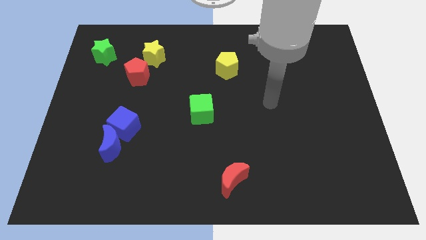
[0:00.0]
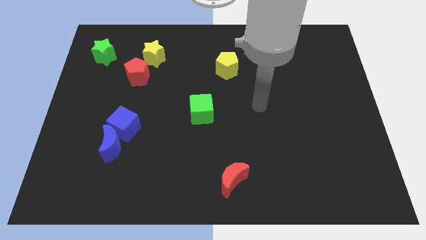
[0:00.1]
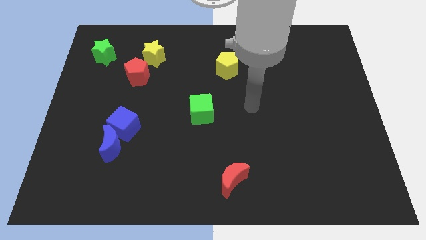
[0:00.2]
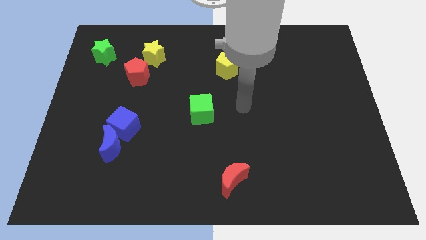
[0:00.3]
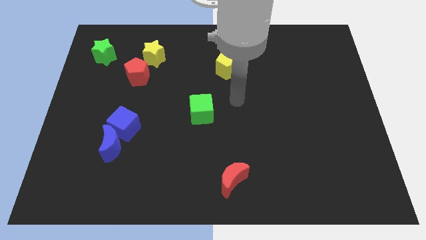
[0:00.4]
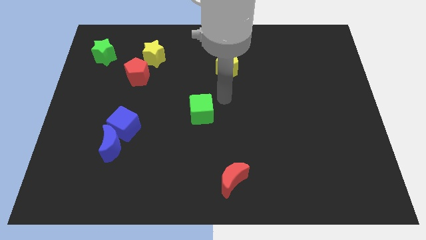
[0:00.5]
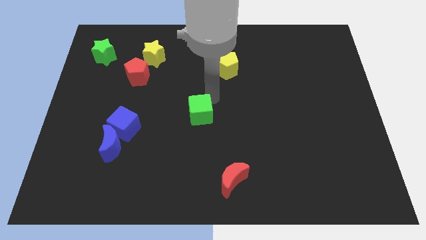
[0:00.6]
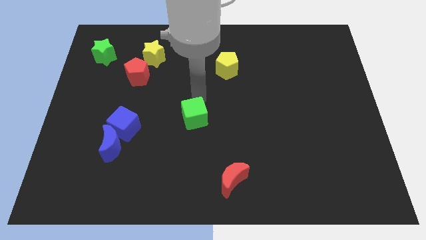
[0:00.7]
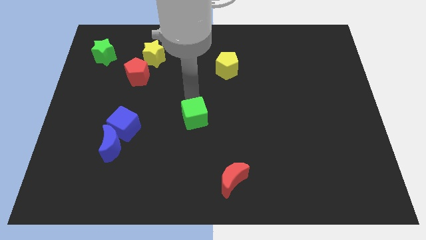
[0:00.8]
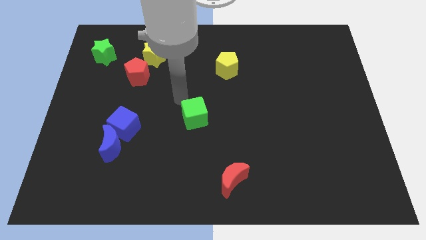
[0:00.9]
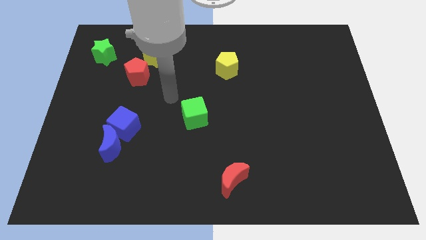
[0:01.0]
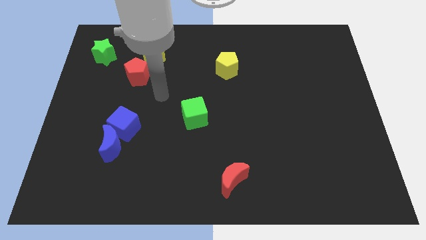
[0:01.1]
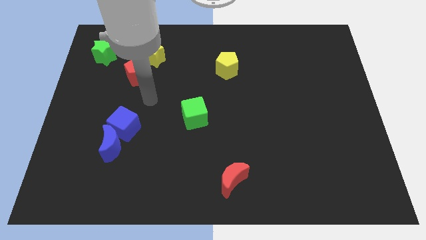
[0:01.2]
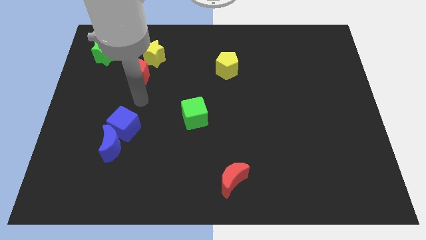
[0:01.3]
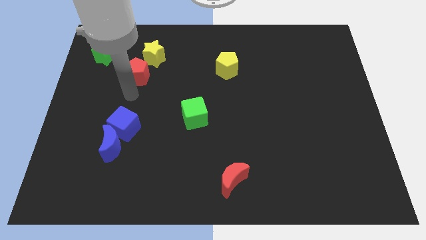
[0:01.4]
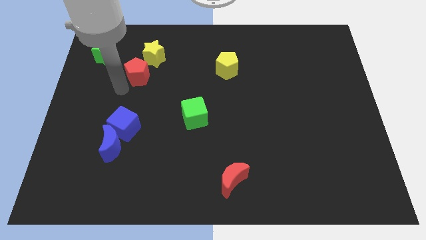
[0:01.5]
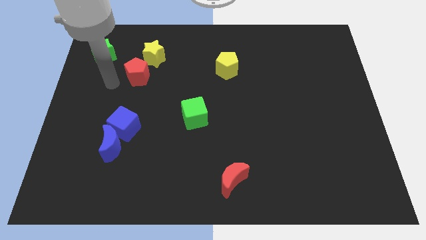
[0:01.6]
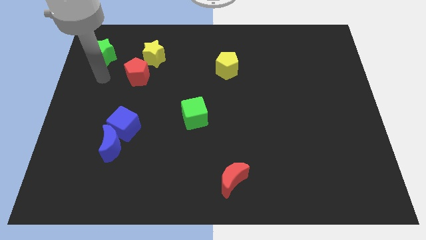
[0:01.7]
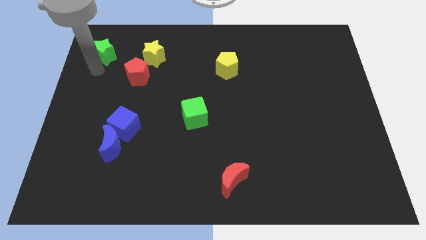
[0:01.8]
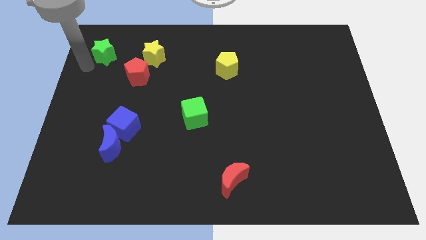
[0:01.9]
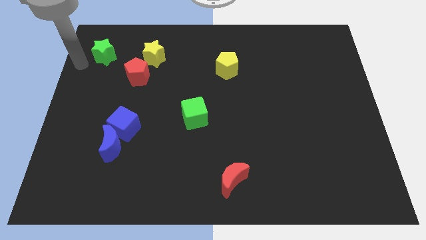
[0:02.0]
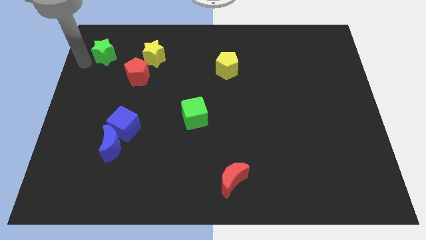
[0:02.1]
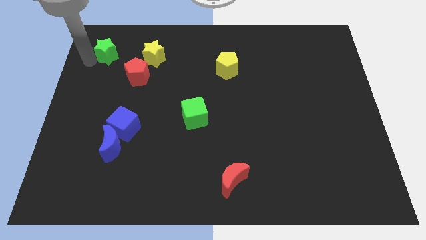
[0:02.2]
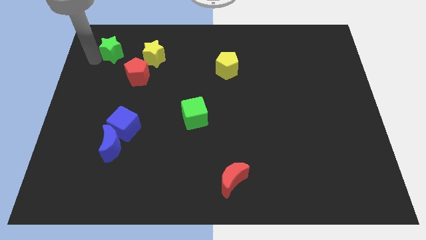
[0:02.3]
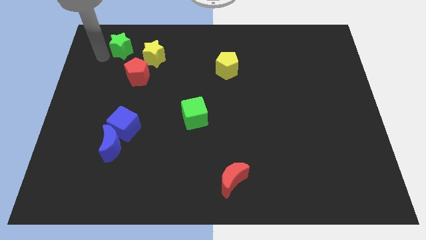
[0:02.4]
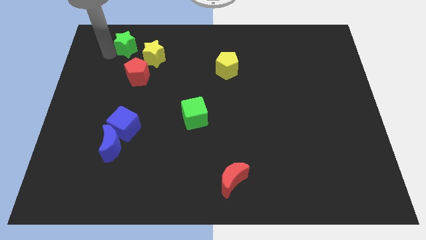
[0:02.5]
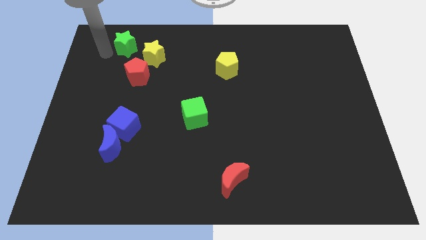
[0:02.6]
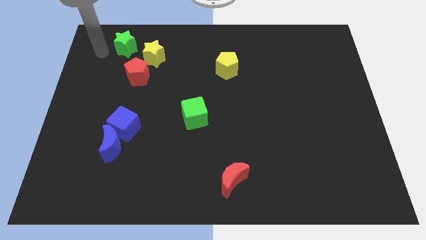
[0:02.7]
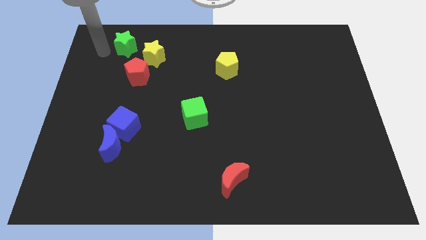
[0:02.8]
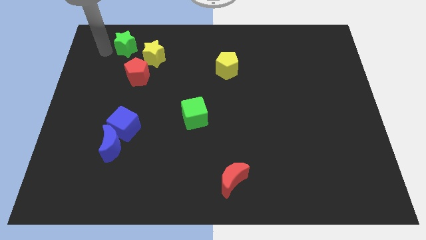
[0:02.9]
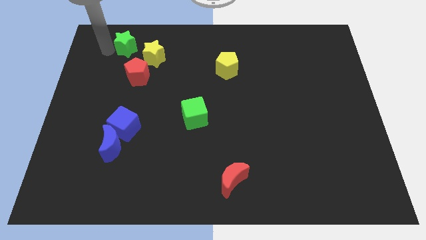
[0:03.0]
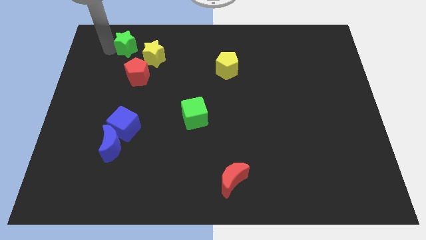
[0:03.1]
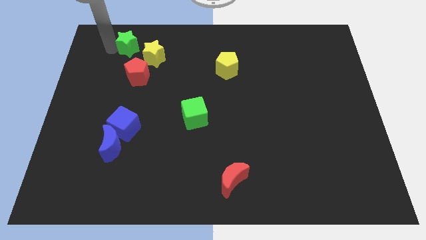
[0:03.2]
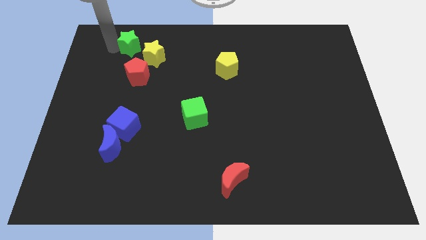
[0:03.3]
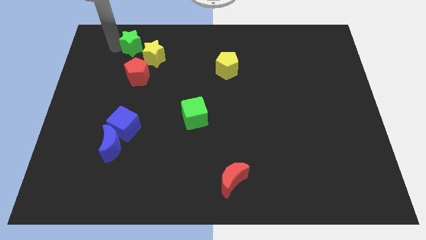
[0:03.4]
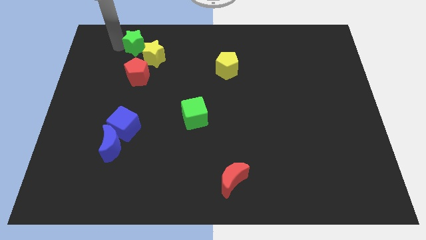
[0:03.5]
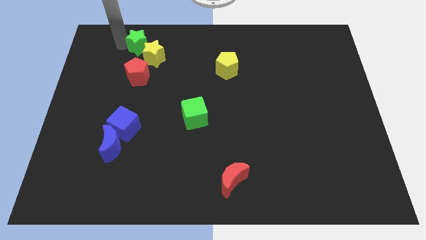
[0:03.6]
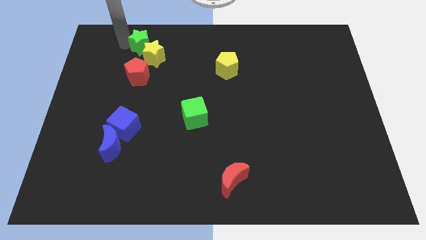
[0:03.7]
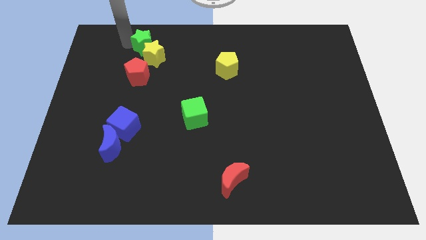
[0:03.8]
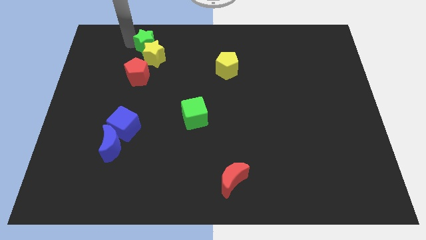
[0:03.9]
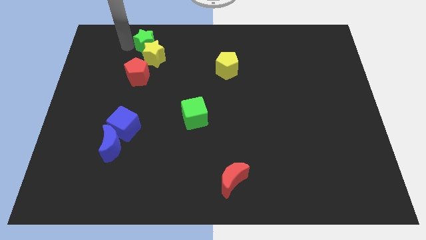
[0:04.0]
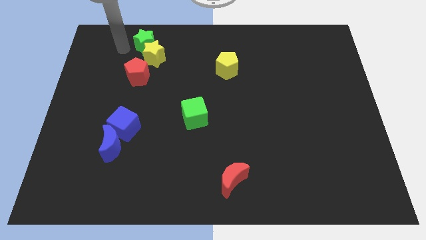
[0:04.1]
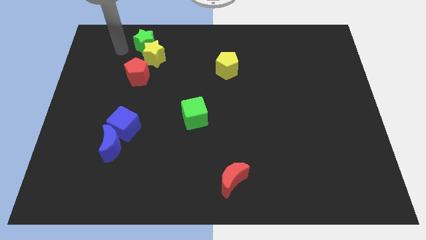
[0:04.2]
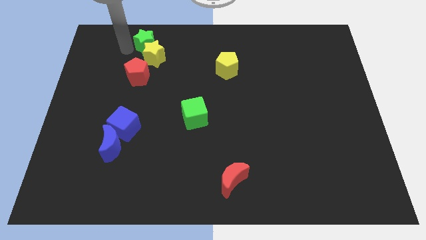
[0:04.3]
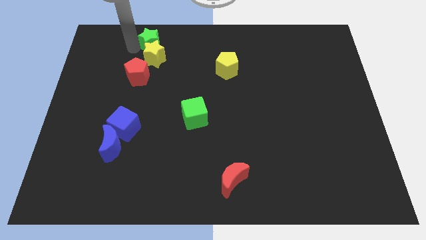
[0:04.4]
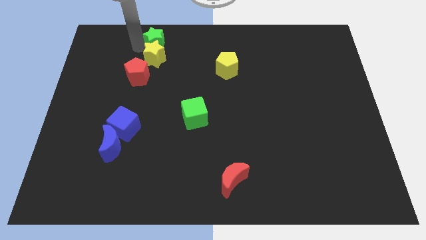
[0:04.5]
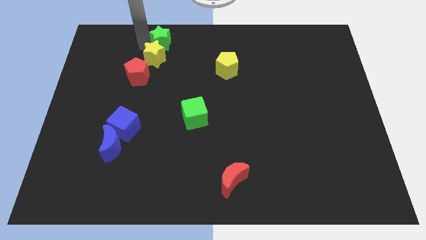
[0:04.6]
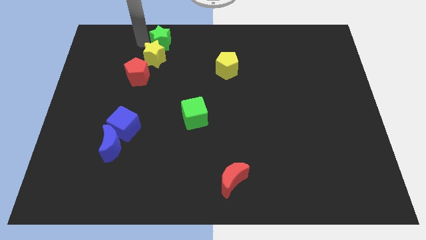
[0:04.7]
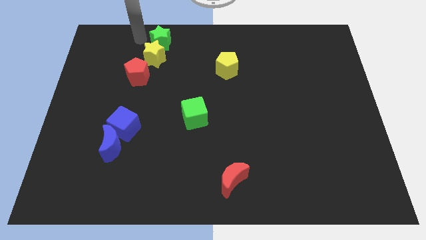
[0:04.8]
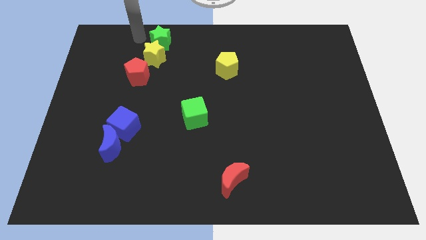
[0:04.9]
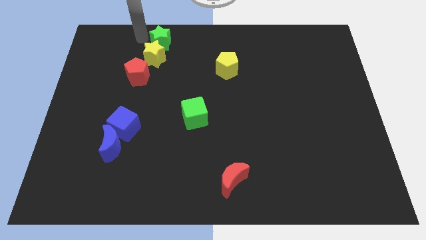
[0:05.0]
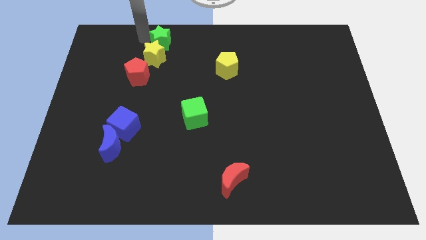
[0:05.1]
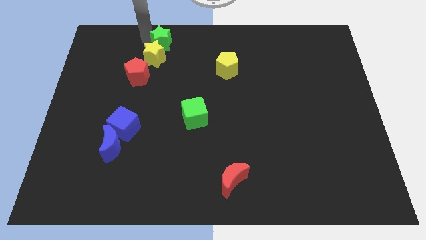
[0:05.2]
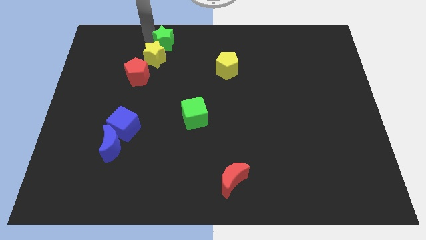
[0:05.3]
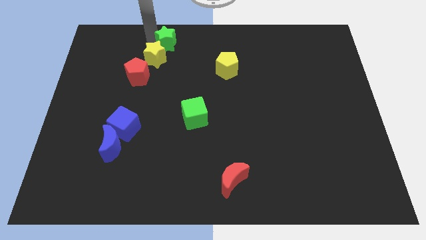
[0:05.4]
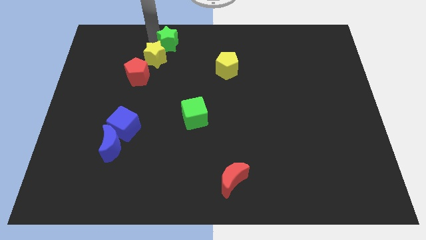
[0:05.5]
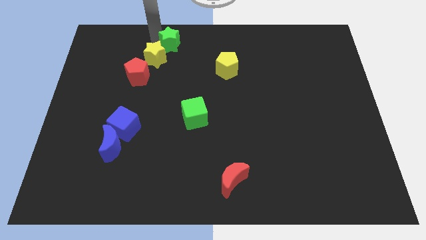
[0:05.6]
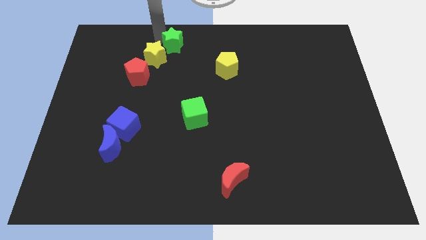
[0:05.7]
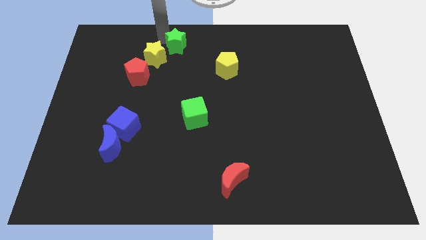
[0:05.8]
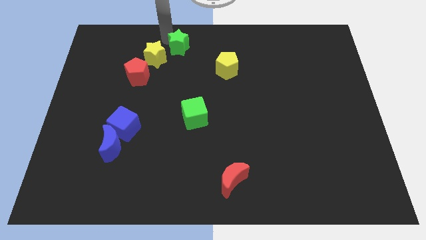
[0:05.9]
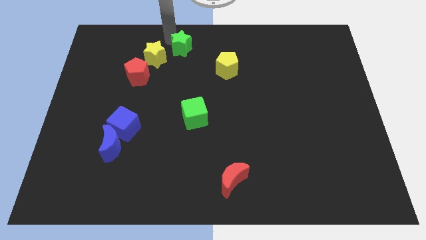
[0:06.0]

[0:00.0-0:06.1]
slide the green star to the right

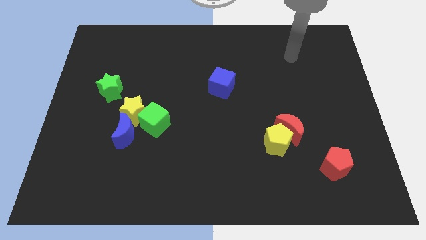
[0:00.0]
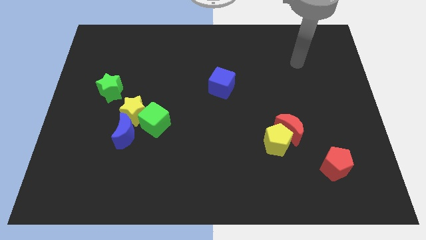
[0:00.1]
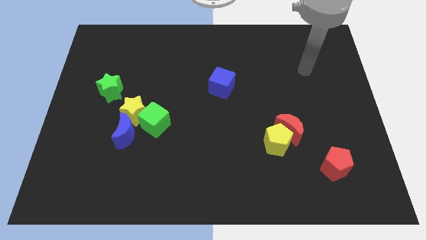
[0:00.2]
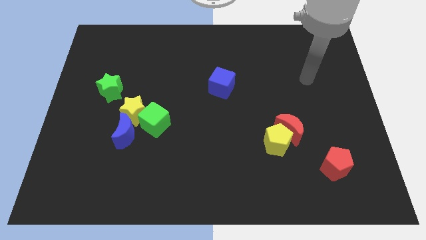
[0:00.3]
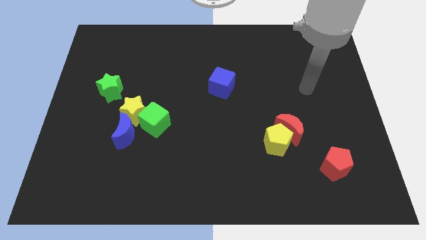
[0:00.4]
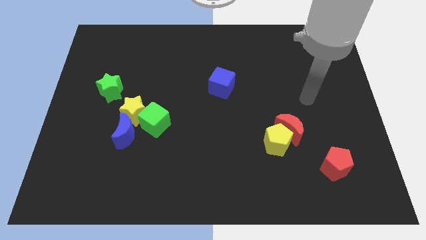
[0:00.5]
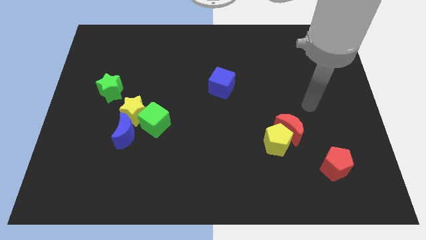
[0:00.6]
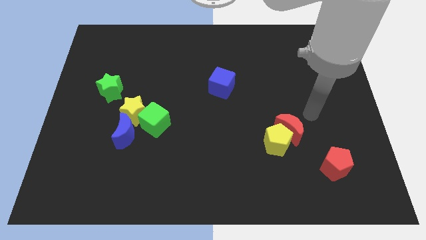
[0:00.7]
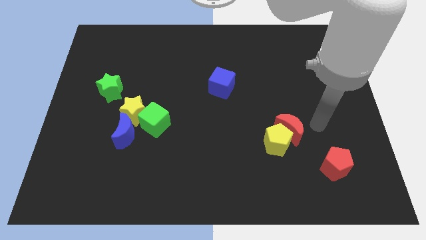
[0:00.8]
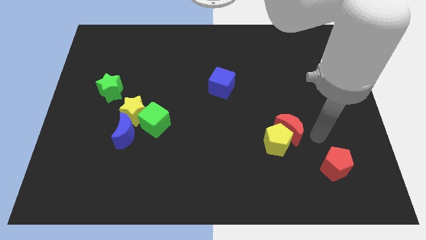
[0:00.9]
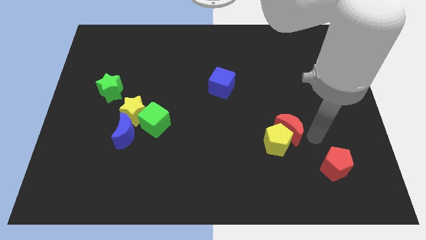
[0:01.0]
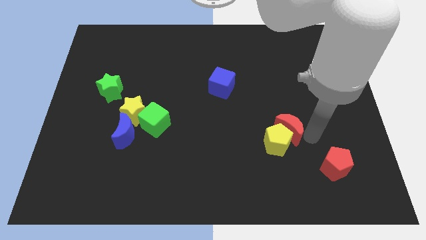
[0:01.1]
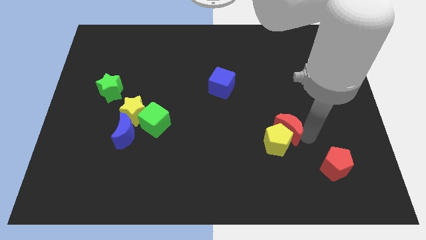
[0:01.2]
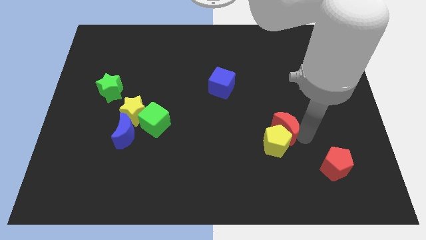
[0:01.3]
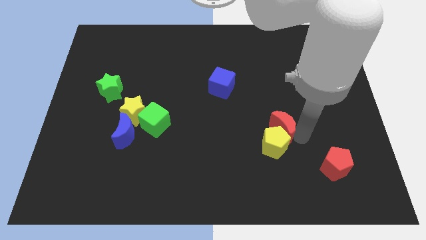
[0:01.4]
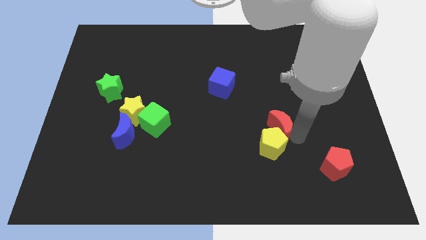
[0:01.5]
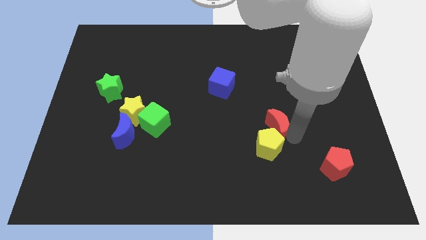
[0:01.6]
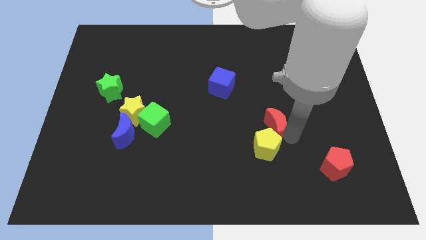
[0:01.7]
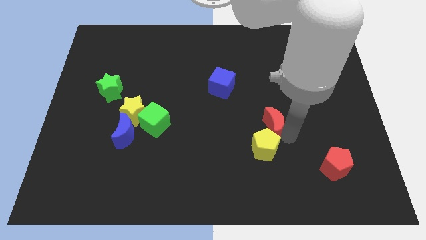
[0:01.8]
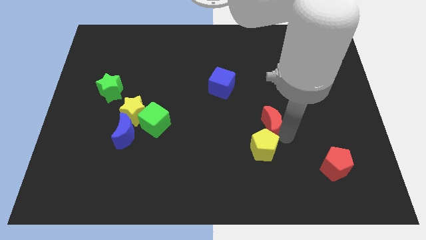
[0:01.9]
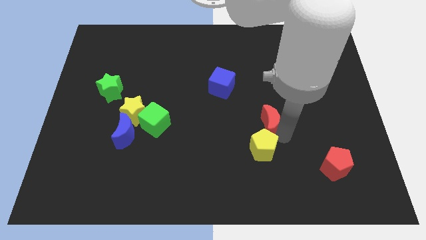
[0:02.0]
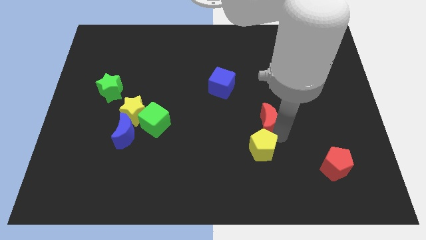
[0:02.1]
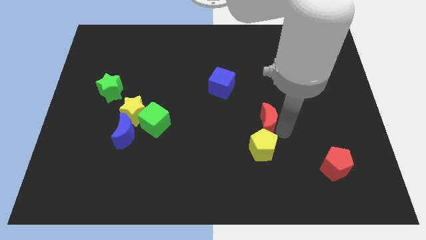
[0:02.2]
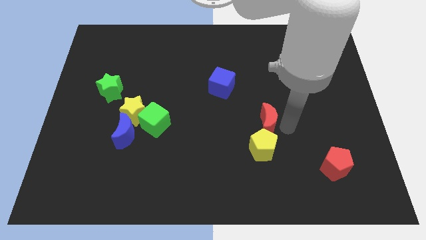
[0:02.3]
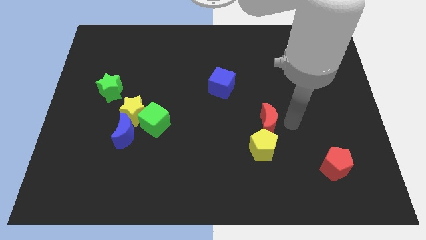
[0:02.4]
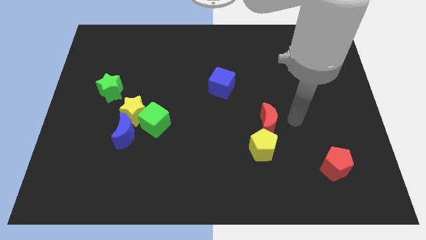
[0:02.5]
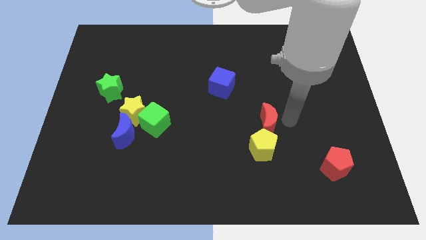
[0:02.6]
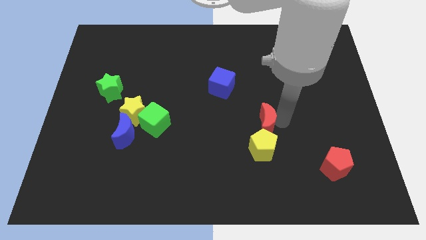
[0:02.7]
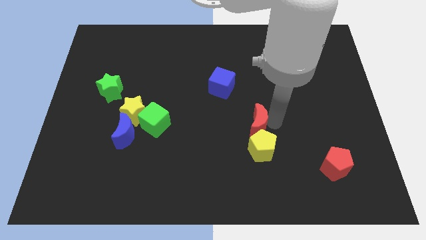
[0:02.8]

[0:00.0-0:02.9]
slightly push the red moon to the left
